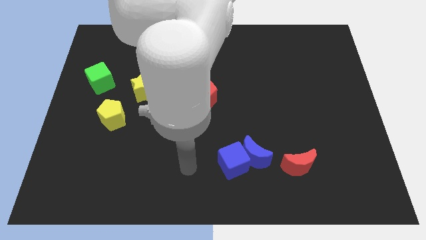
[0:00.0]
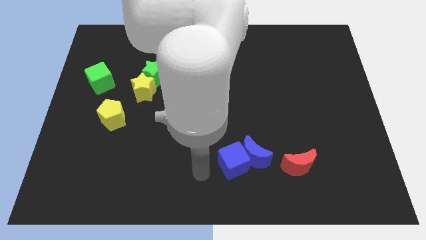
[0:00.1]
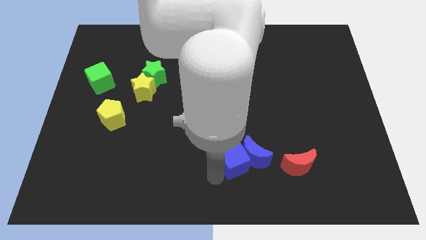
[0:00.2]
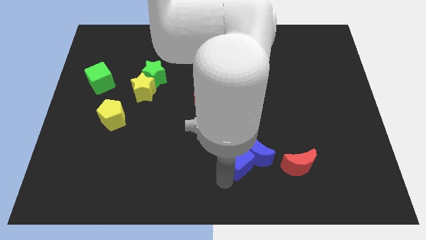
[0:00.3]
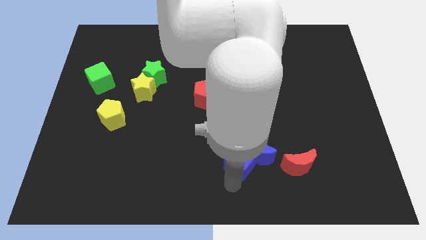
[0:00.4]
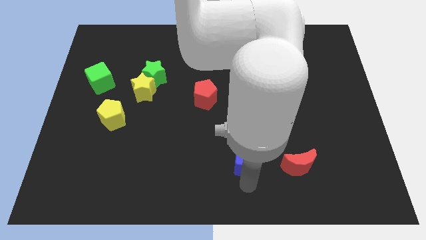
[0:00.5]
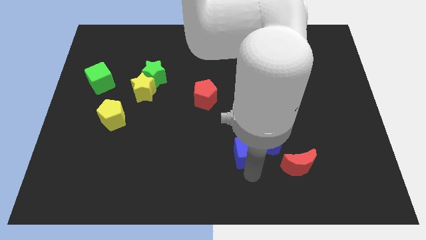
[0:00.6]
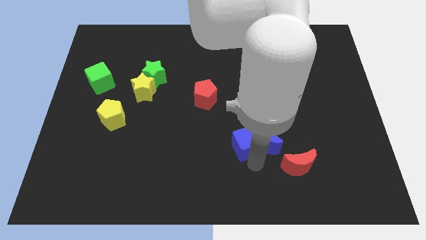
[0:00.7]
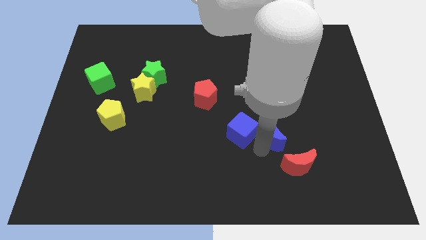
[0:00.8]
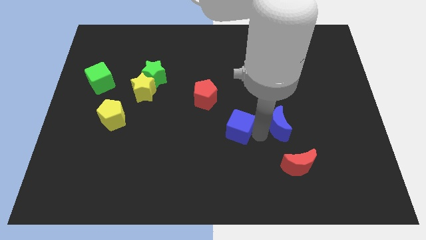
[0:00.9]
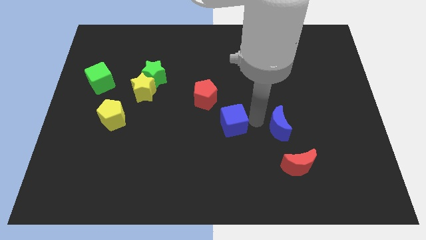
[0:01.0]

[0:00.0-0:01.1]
separate the blue cube from the blue moon

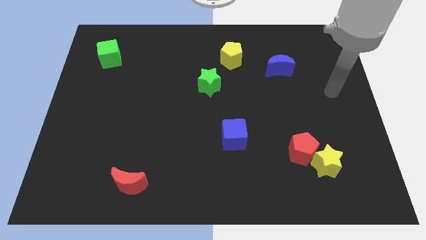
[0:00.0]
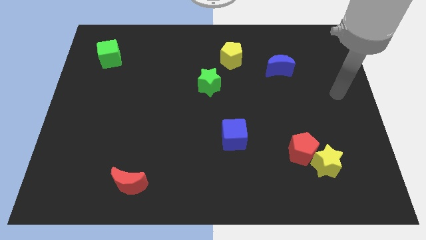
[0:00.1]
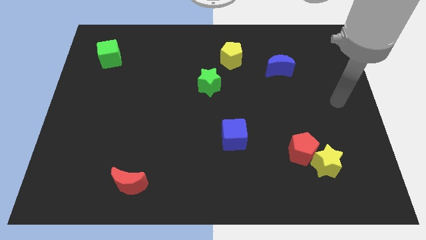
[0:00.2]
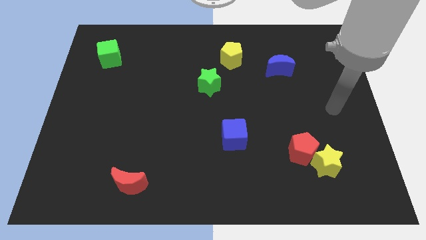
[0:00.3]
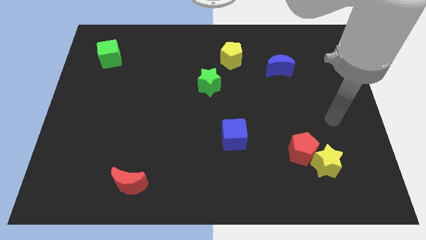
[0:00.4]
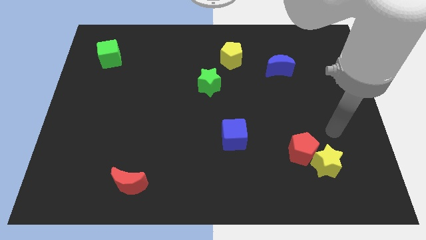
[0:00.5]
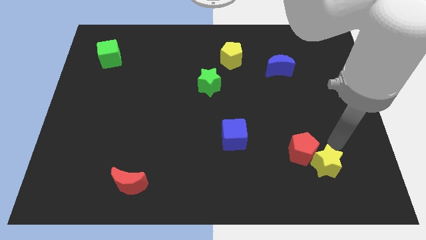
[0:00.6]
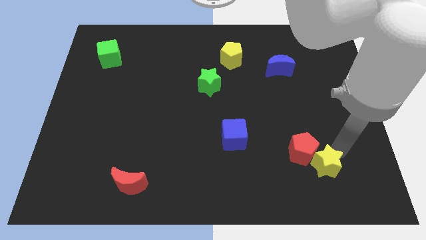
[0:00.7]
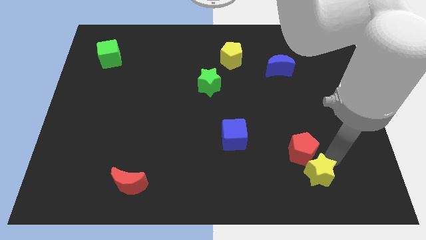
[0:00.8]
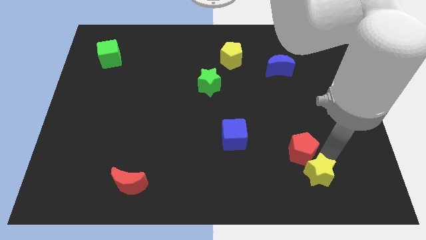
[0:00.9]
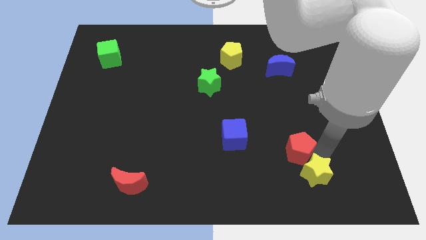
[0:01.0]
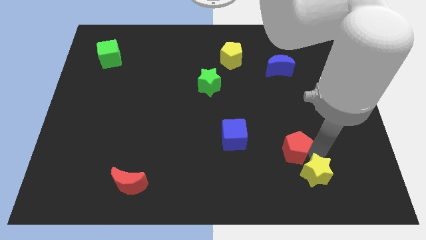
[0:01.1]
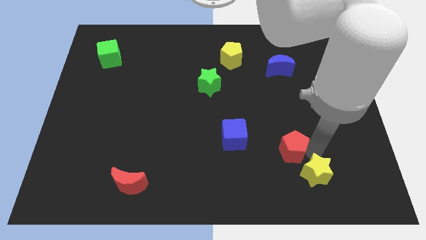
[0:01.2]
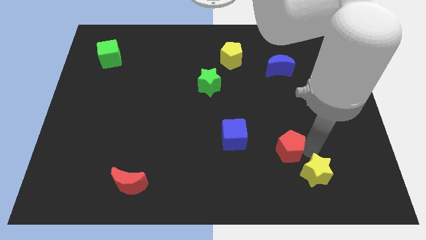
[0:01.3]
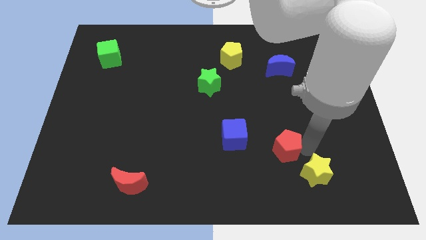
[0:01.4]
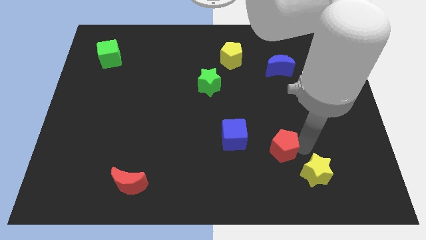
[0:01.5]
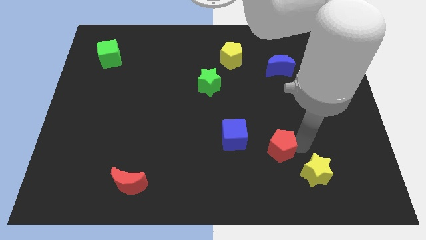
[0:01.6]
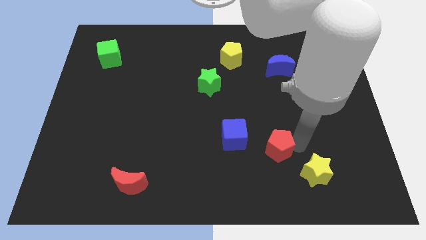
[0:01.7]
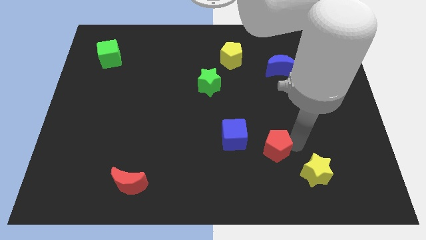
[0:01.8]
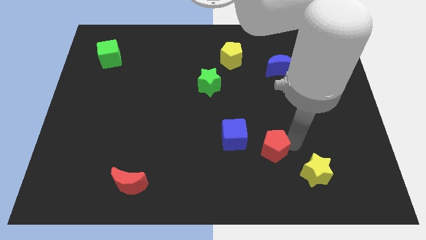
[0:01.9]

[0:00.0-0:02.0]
move the red pentagon away from the yellow star

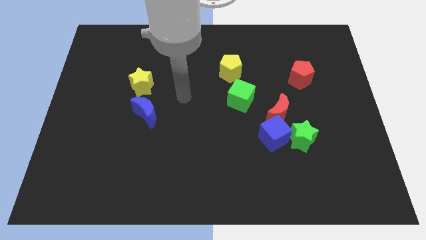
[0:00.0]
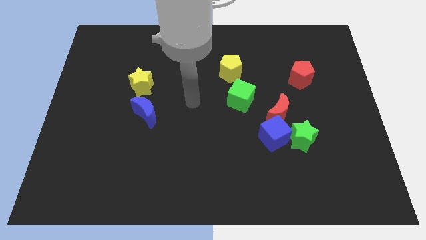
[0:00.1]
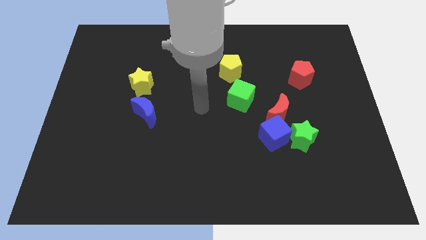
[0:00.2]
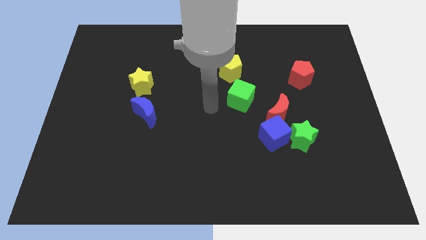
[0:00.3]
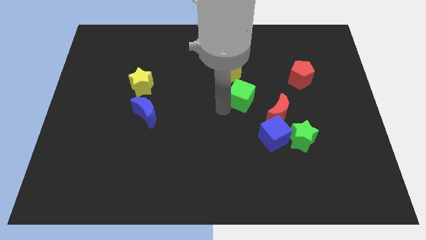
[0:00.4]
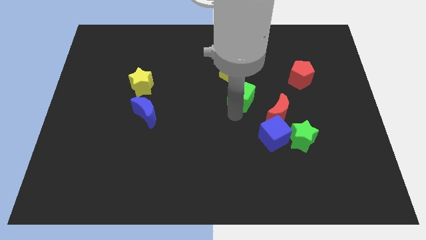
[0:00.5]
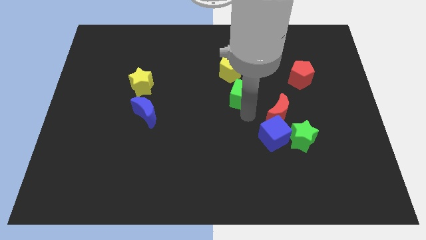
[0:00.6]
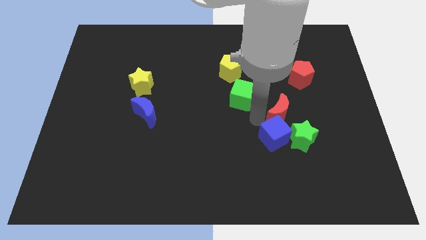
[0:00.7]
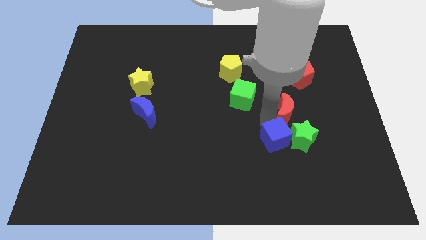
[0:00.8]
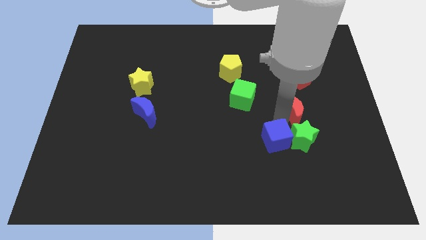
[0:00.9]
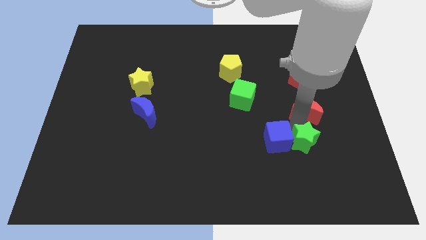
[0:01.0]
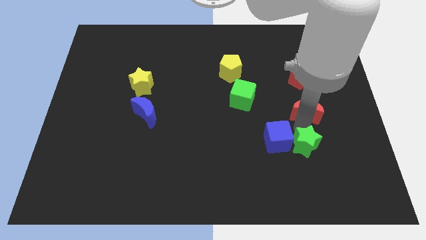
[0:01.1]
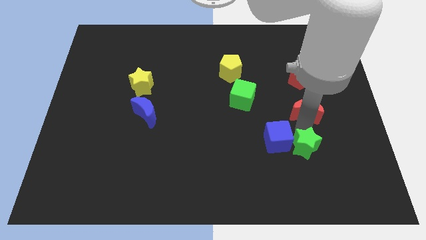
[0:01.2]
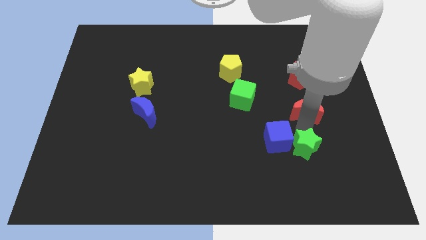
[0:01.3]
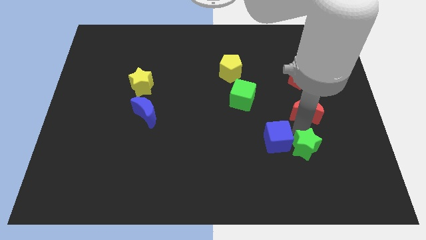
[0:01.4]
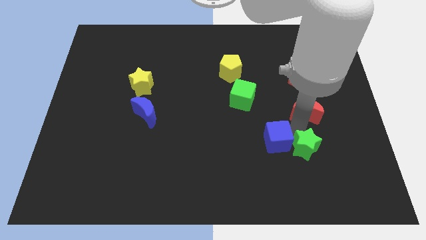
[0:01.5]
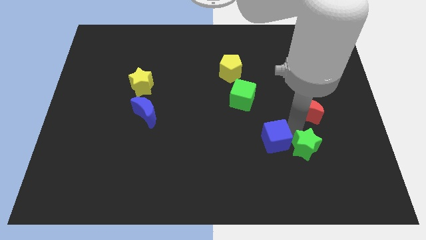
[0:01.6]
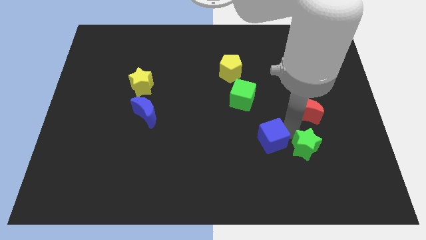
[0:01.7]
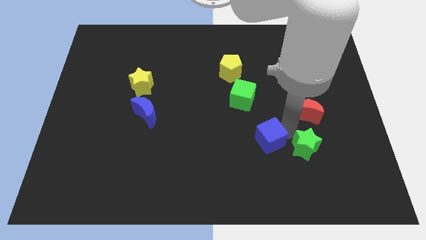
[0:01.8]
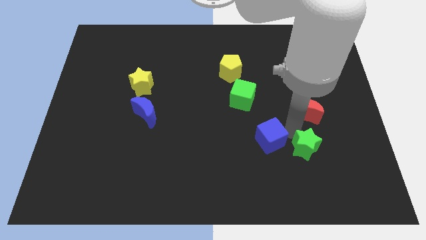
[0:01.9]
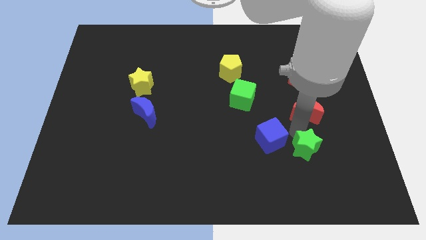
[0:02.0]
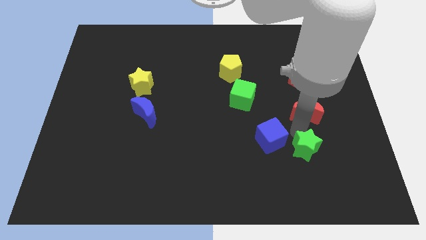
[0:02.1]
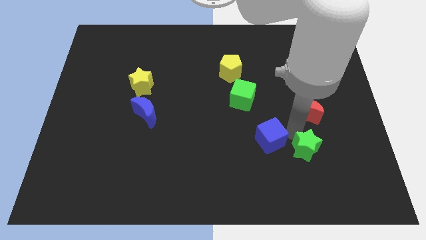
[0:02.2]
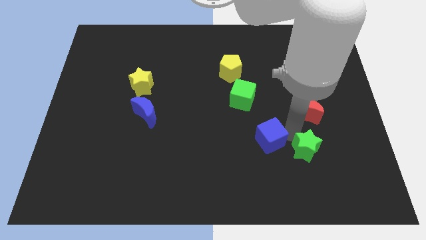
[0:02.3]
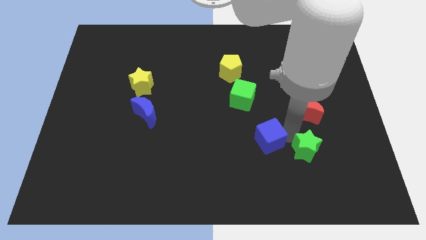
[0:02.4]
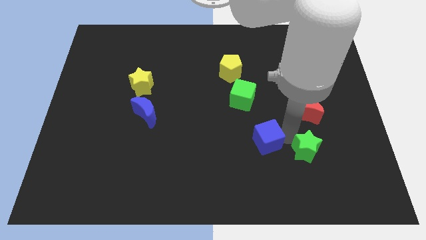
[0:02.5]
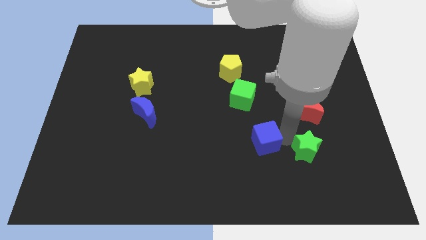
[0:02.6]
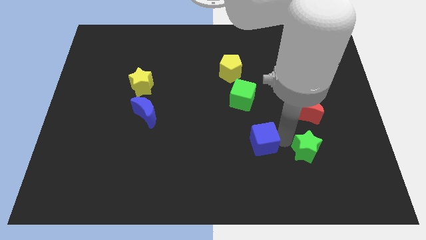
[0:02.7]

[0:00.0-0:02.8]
separate the blue cube from the green star and red moon

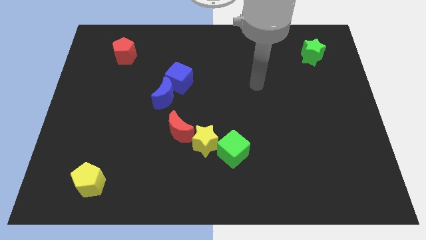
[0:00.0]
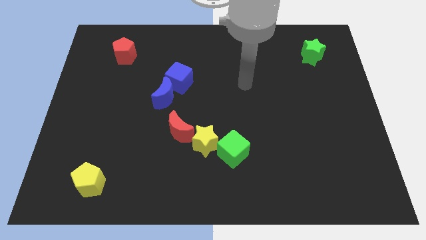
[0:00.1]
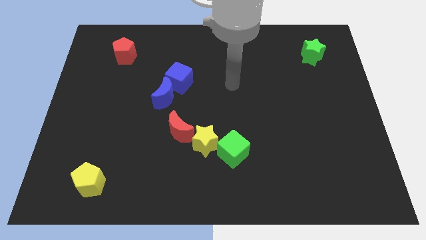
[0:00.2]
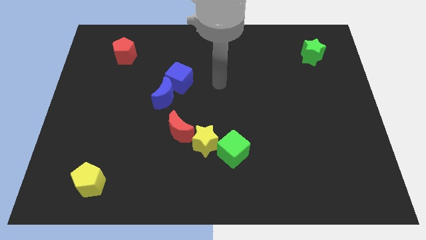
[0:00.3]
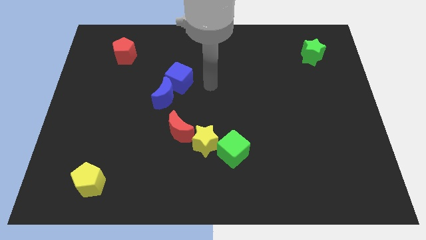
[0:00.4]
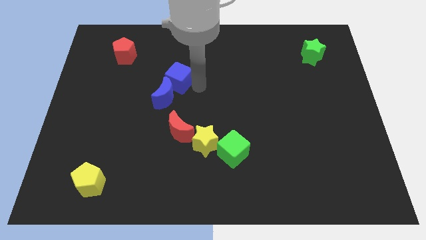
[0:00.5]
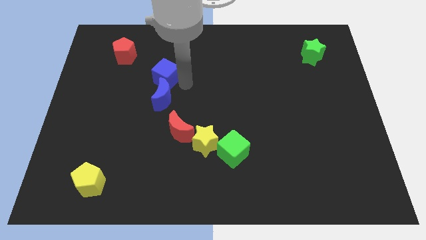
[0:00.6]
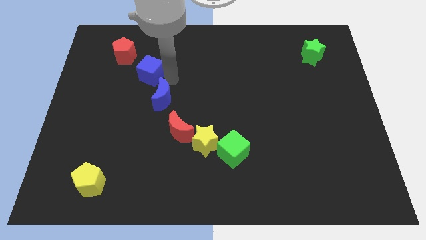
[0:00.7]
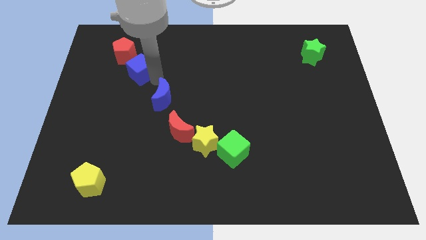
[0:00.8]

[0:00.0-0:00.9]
pull the blue moon apart from the blue cube

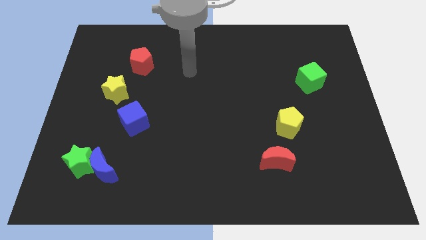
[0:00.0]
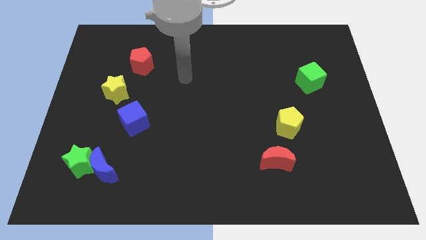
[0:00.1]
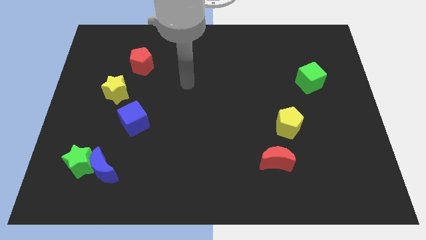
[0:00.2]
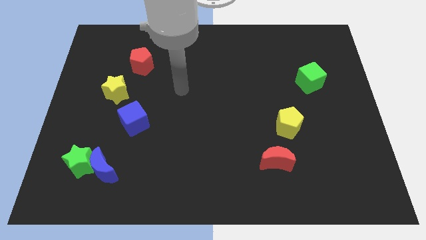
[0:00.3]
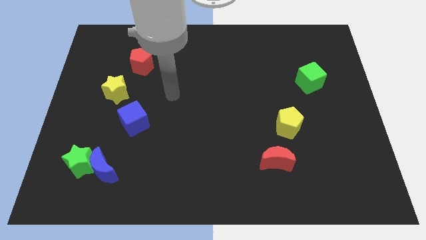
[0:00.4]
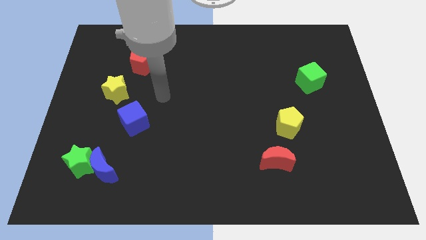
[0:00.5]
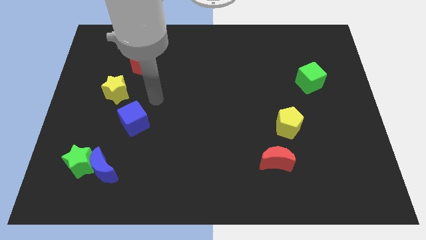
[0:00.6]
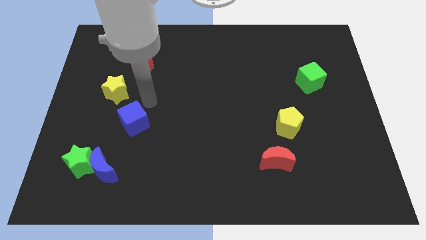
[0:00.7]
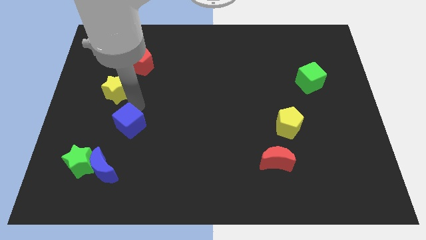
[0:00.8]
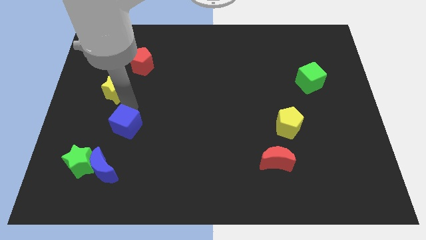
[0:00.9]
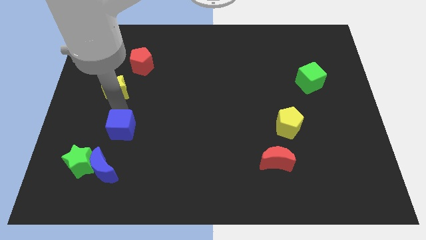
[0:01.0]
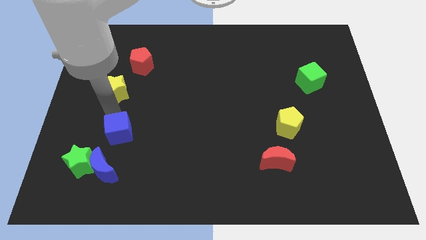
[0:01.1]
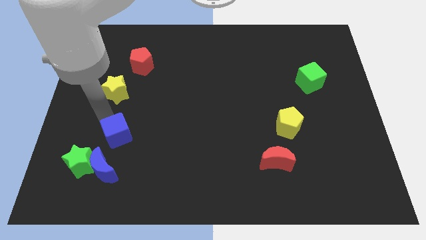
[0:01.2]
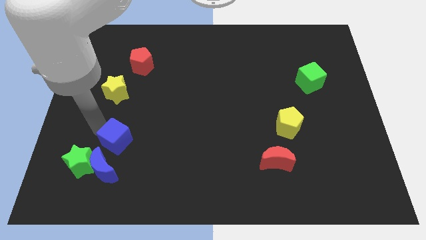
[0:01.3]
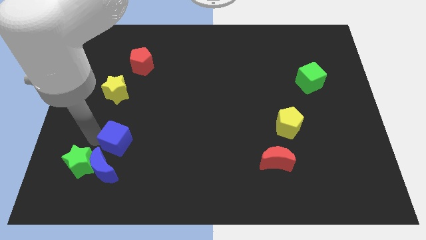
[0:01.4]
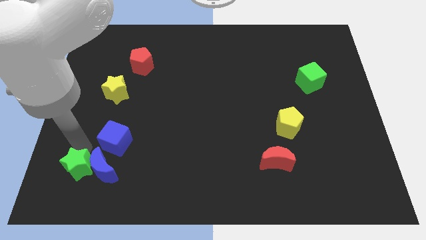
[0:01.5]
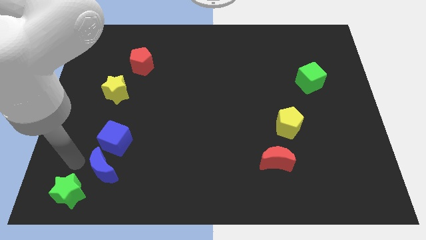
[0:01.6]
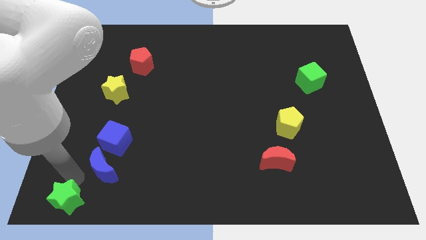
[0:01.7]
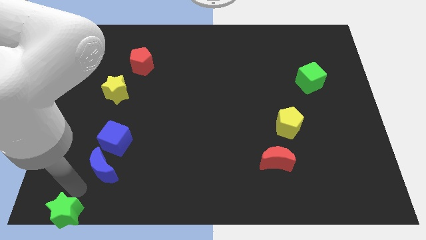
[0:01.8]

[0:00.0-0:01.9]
pull the blue moon apart from the green star

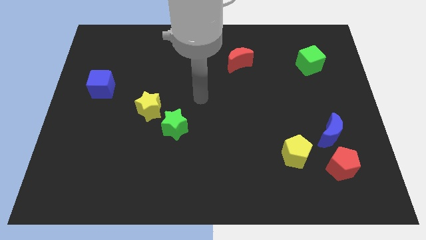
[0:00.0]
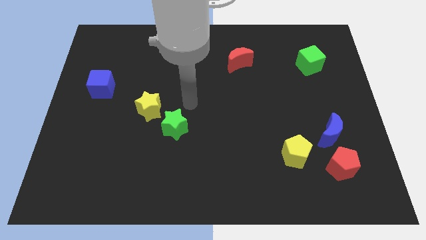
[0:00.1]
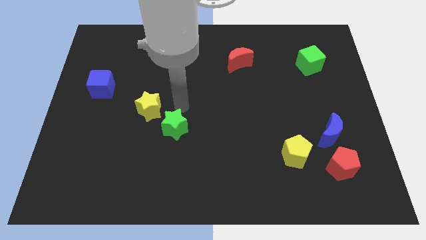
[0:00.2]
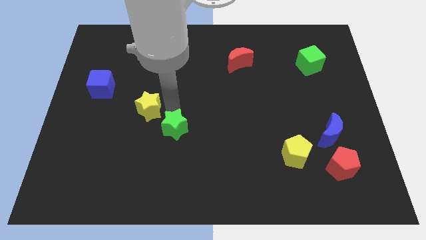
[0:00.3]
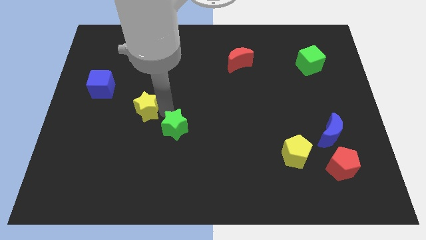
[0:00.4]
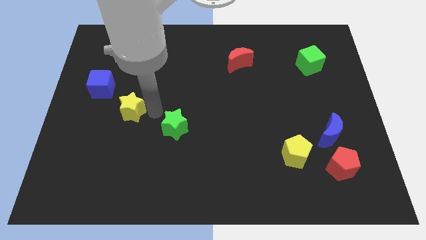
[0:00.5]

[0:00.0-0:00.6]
separate the green star from the yellow star
